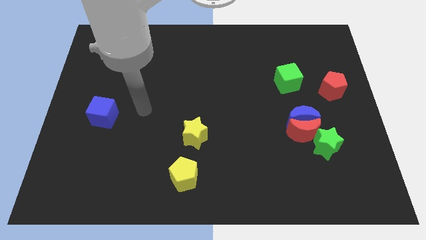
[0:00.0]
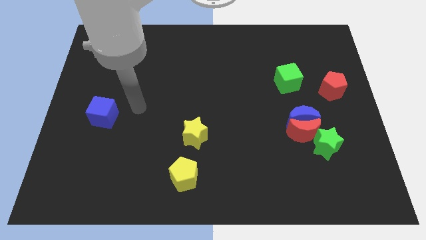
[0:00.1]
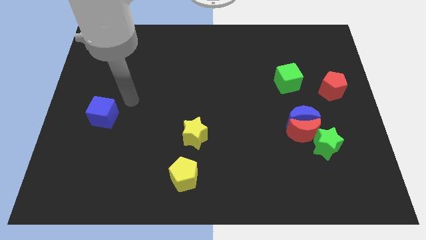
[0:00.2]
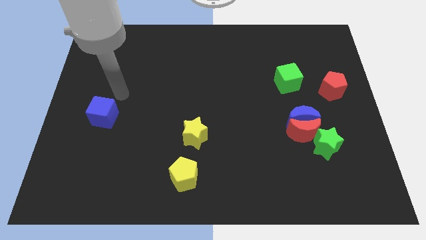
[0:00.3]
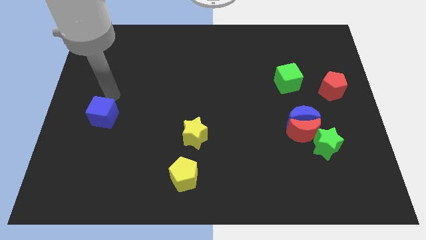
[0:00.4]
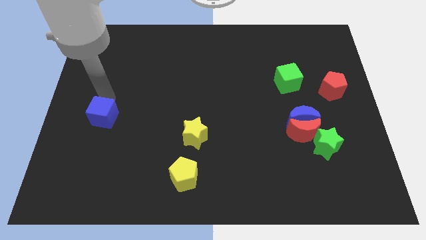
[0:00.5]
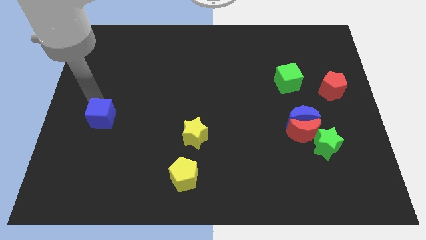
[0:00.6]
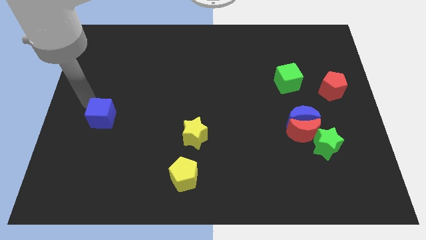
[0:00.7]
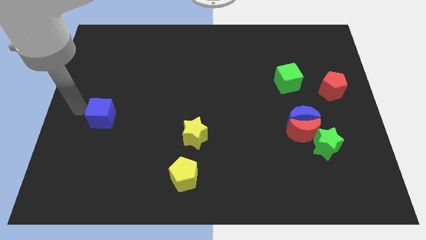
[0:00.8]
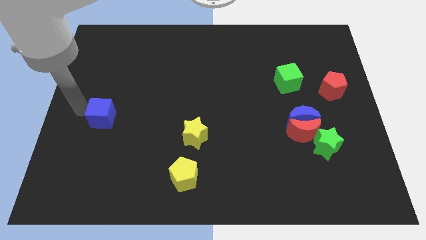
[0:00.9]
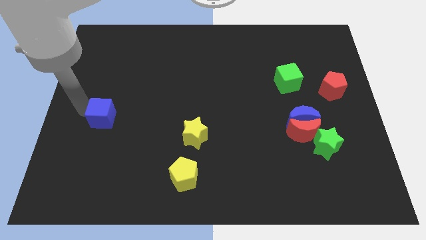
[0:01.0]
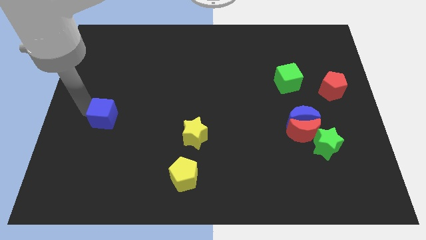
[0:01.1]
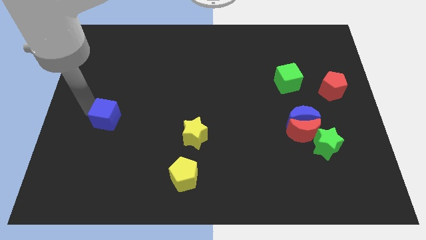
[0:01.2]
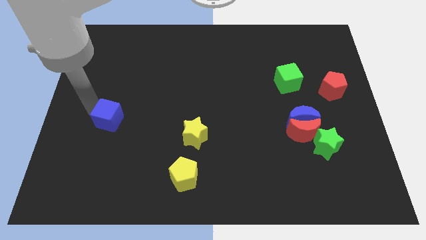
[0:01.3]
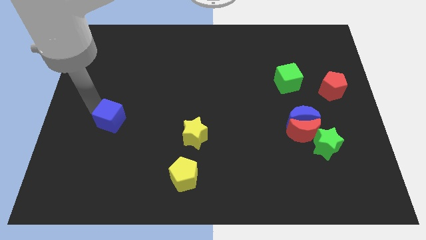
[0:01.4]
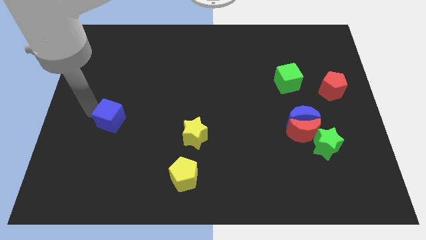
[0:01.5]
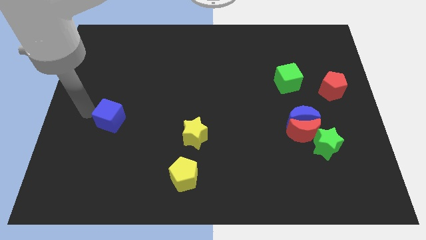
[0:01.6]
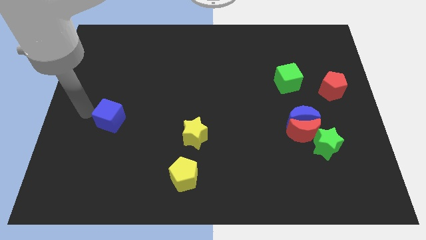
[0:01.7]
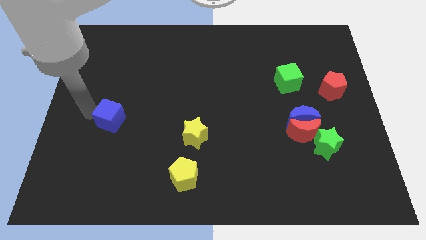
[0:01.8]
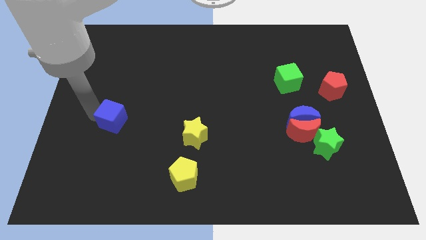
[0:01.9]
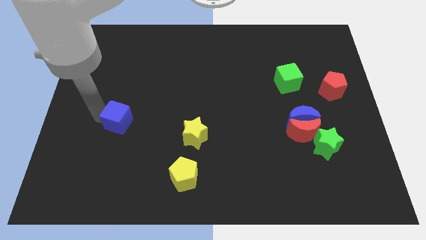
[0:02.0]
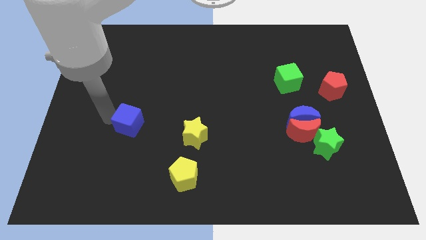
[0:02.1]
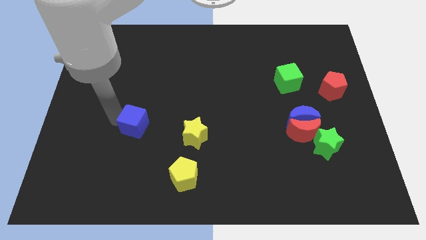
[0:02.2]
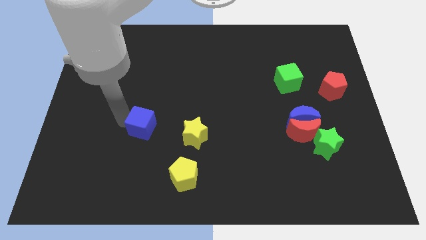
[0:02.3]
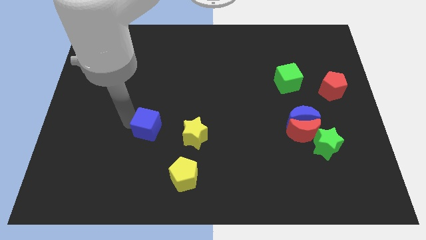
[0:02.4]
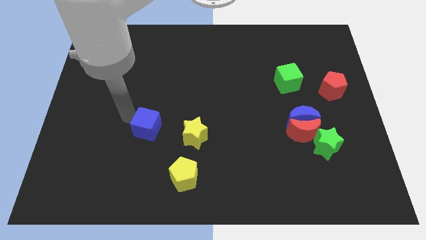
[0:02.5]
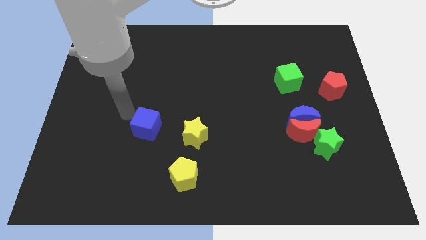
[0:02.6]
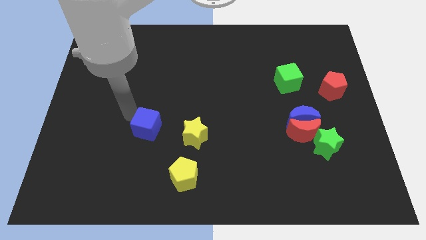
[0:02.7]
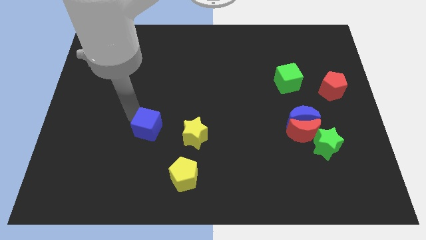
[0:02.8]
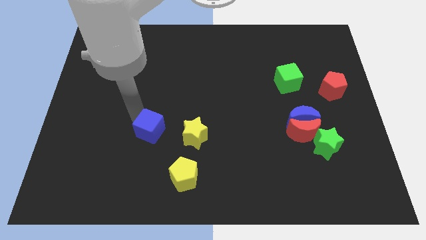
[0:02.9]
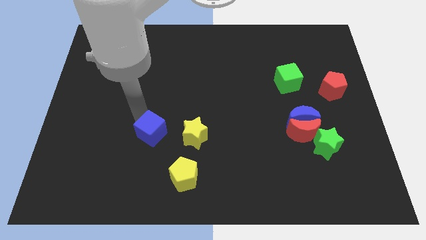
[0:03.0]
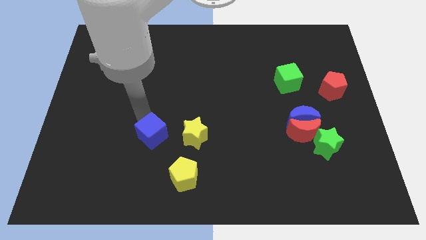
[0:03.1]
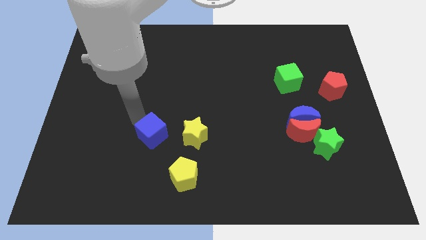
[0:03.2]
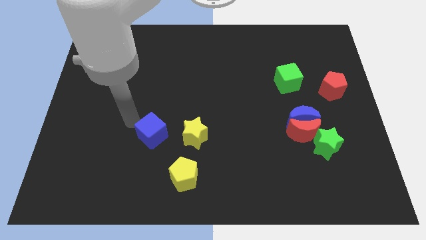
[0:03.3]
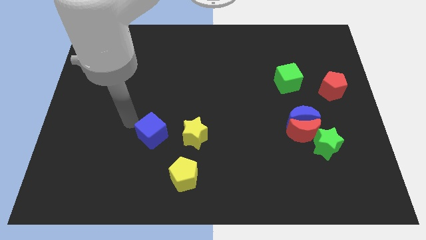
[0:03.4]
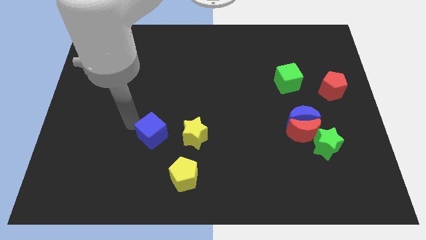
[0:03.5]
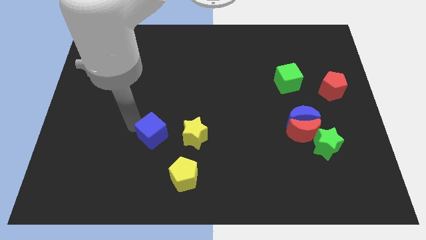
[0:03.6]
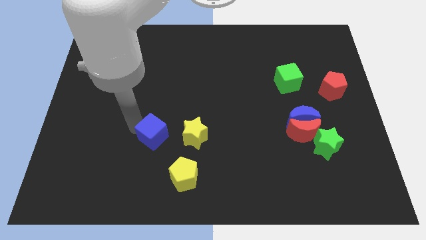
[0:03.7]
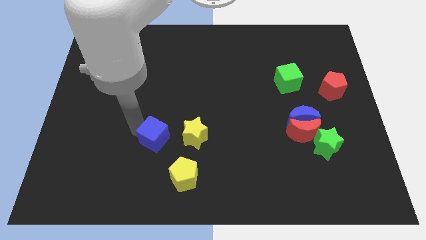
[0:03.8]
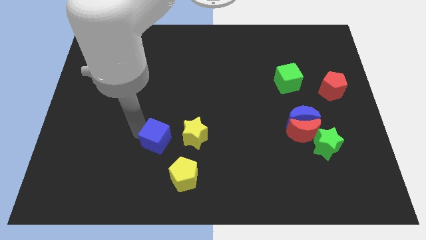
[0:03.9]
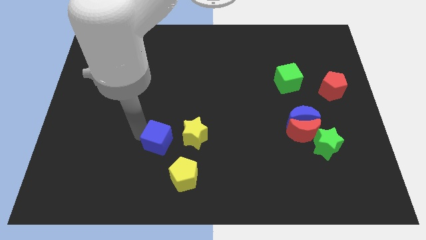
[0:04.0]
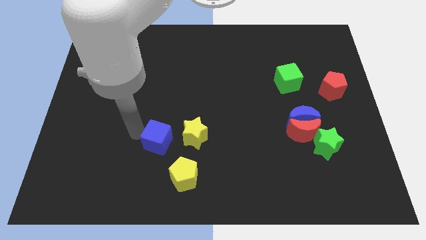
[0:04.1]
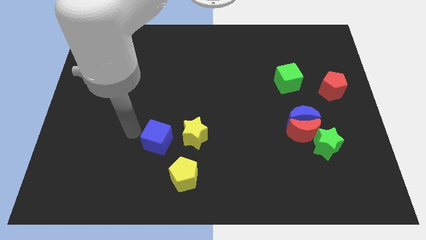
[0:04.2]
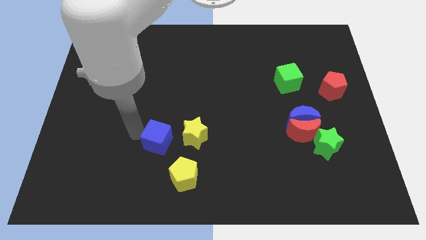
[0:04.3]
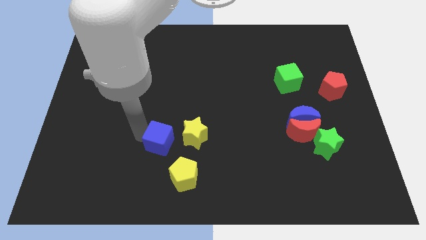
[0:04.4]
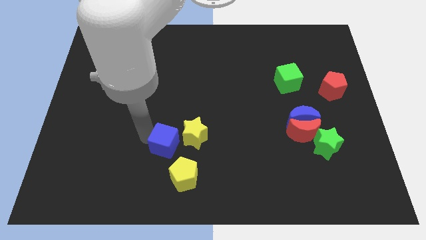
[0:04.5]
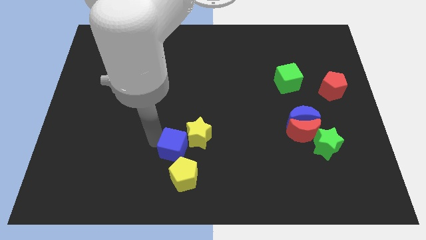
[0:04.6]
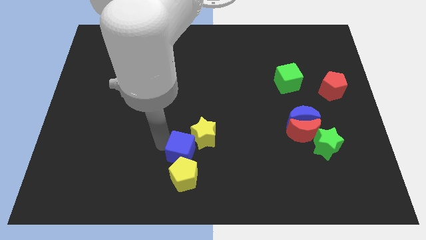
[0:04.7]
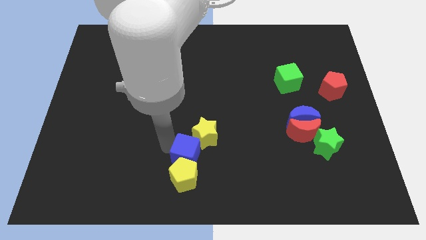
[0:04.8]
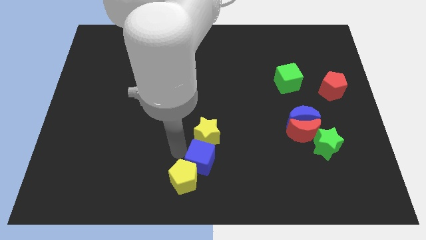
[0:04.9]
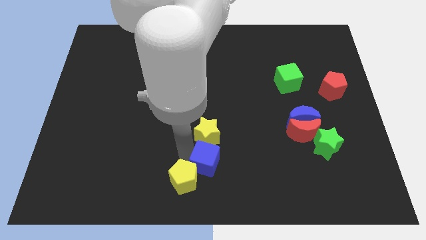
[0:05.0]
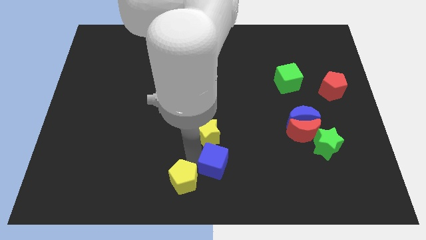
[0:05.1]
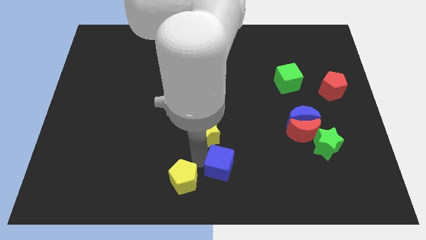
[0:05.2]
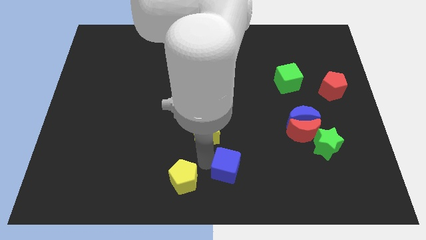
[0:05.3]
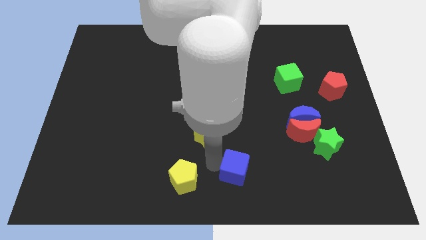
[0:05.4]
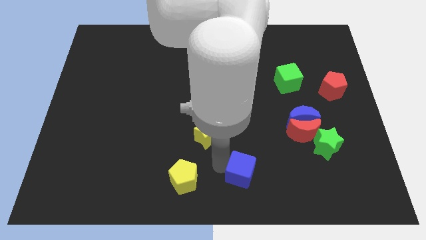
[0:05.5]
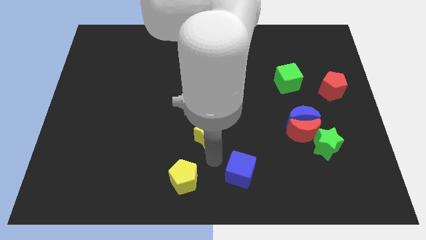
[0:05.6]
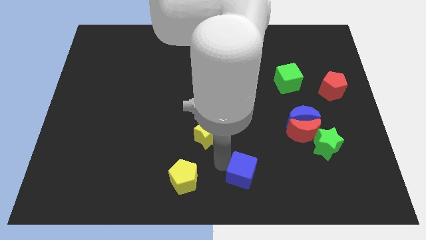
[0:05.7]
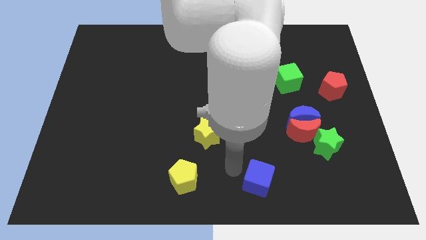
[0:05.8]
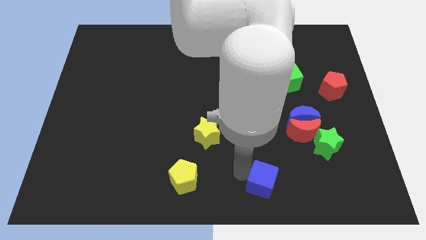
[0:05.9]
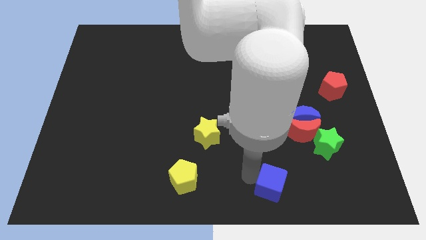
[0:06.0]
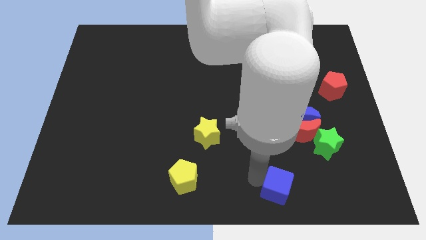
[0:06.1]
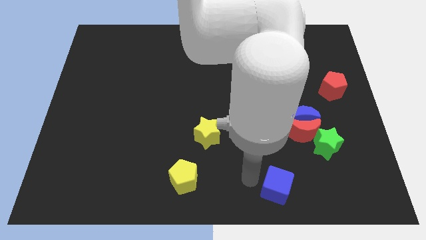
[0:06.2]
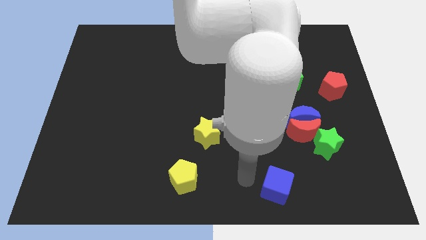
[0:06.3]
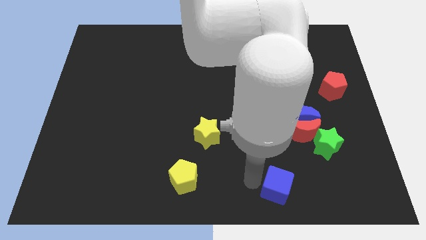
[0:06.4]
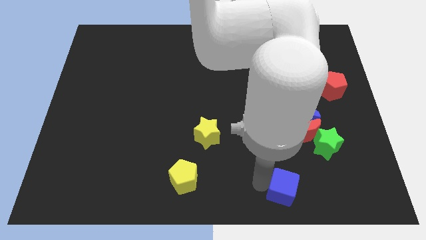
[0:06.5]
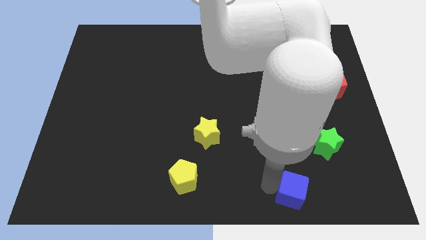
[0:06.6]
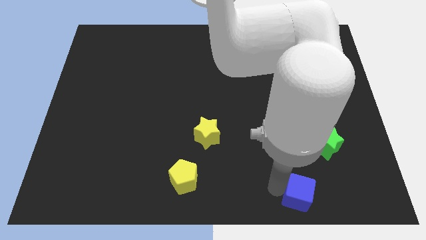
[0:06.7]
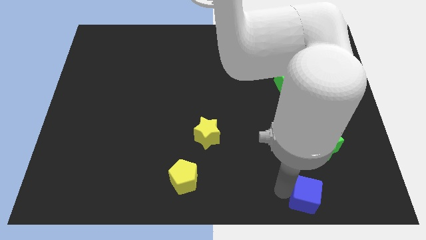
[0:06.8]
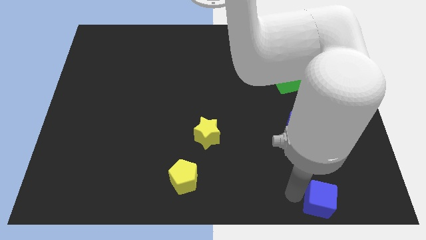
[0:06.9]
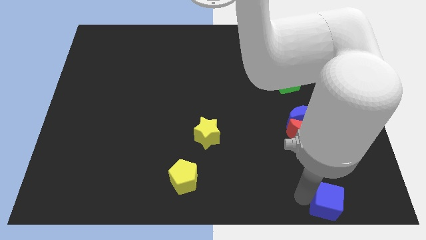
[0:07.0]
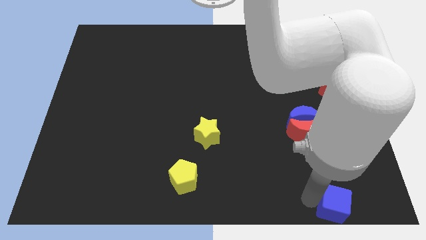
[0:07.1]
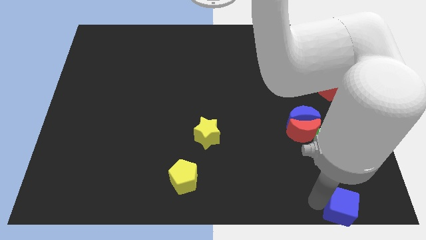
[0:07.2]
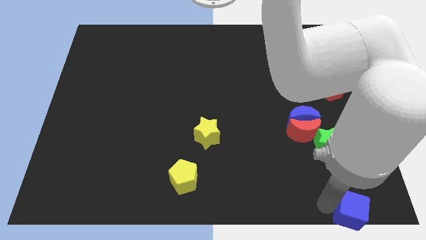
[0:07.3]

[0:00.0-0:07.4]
move the blue cube to the bottom right of the board
